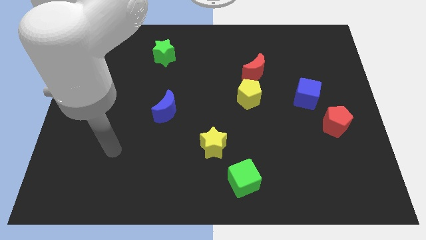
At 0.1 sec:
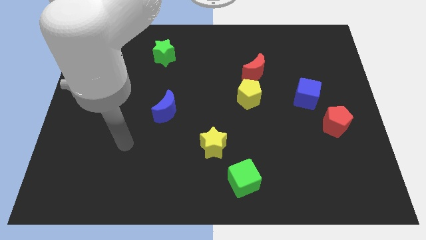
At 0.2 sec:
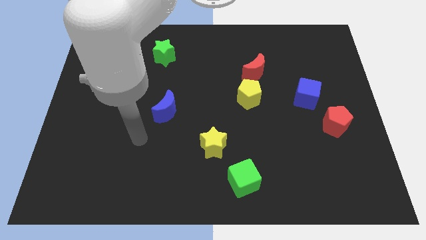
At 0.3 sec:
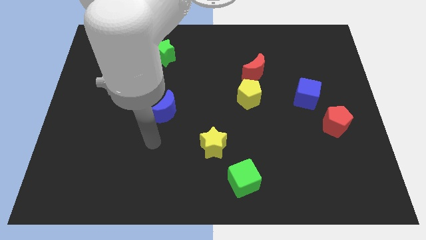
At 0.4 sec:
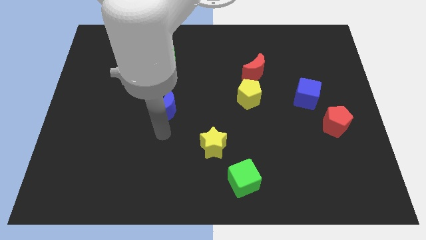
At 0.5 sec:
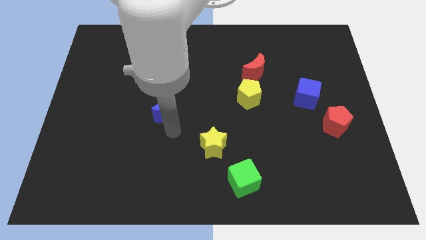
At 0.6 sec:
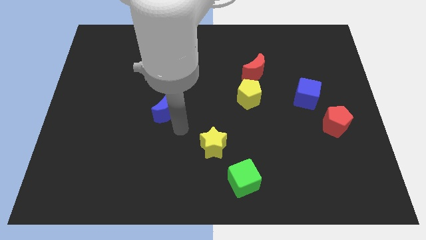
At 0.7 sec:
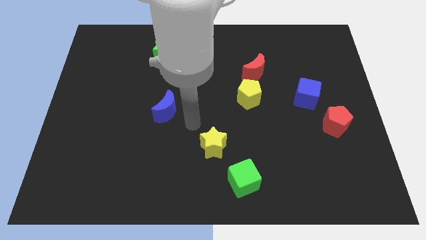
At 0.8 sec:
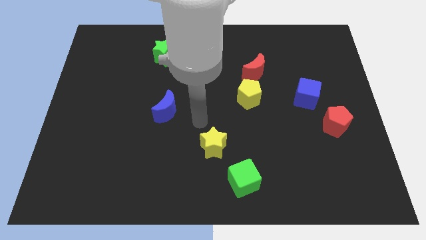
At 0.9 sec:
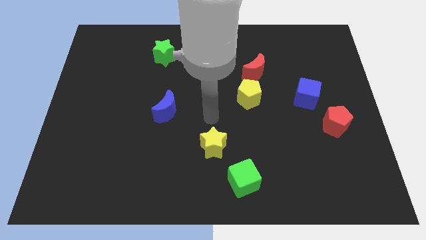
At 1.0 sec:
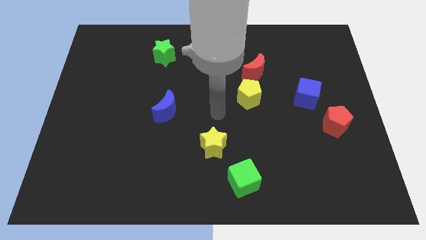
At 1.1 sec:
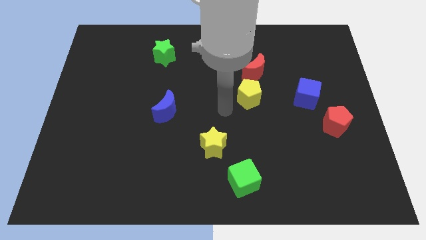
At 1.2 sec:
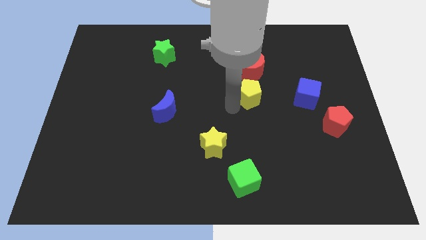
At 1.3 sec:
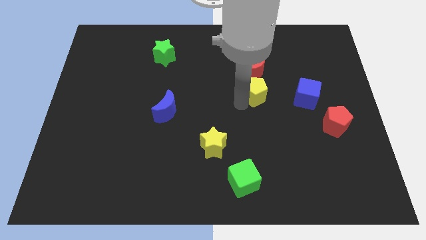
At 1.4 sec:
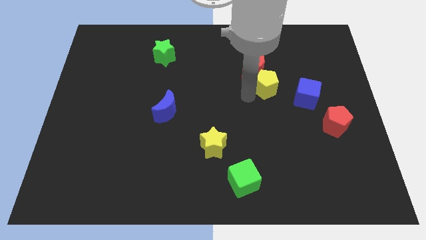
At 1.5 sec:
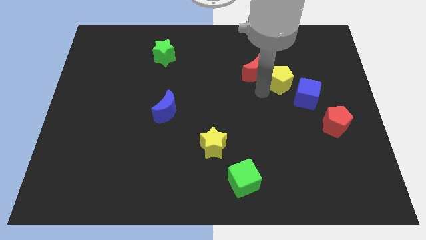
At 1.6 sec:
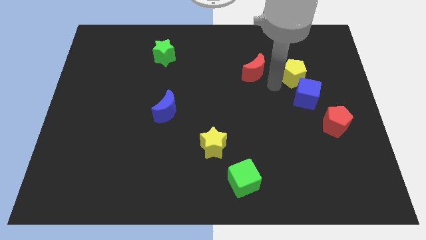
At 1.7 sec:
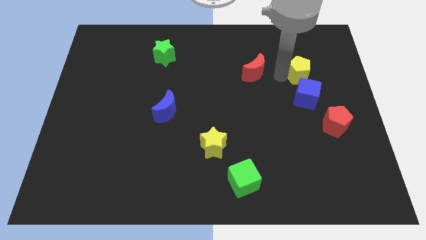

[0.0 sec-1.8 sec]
pull the red moon apart from the yellow pentagon

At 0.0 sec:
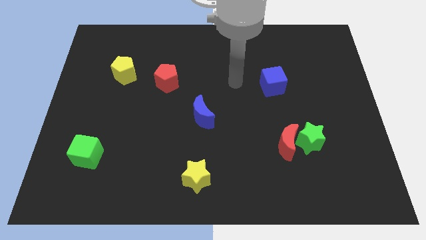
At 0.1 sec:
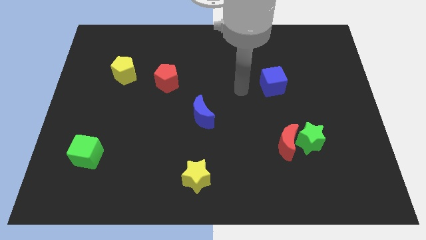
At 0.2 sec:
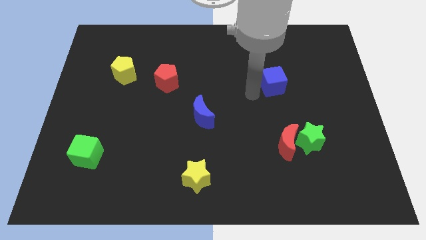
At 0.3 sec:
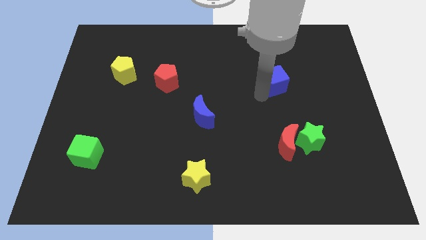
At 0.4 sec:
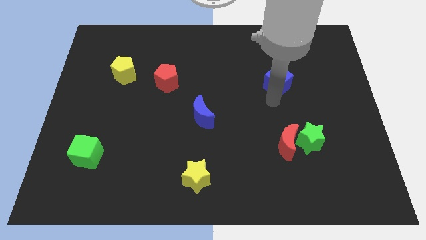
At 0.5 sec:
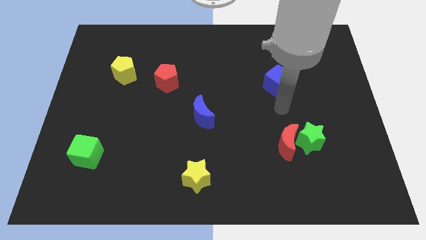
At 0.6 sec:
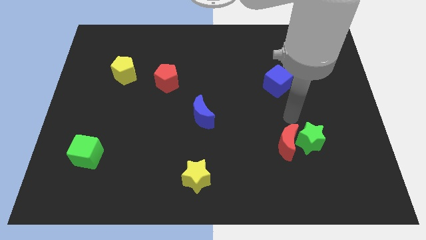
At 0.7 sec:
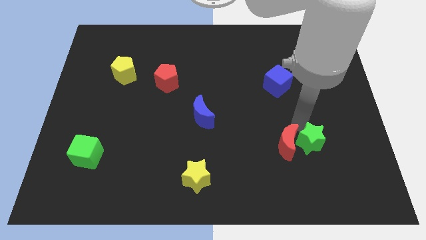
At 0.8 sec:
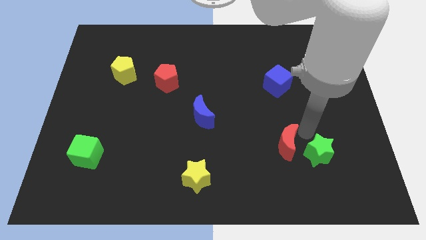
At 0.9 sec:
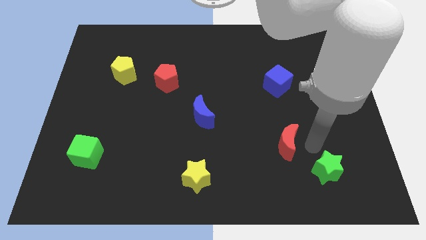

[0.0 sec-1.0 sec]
separate the red moon from the green star

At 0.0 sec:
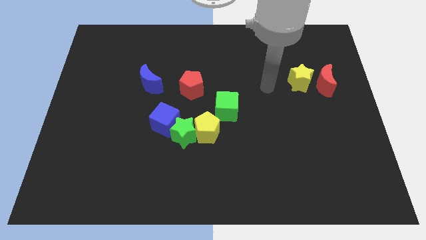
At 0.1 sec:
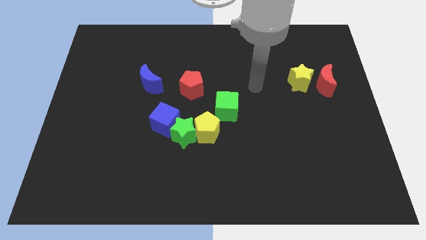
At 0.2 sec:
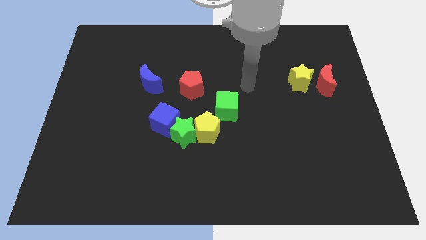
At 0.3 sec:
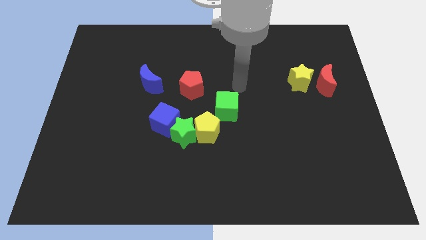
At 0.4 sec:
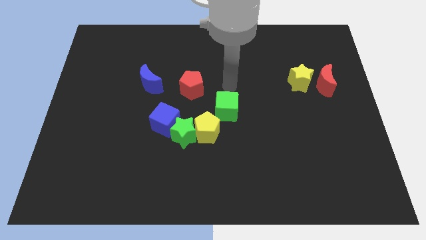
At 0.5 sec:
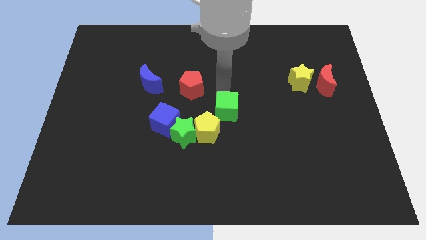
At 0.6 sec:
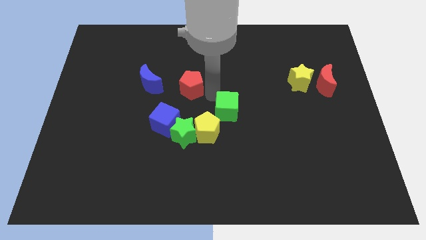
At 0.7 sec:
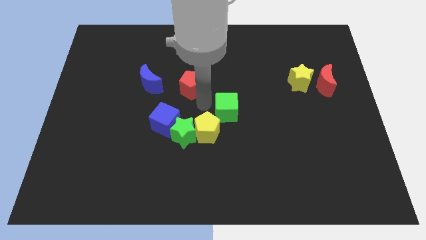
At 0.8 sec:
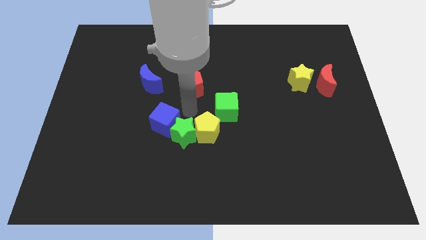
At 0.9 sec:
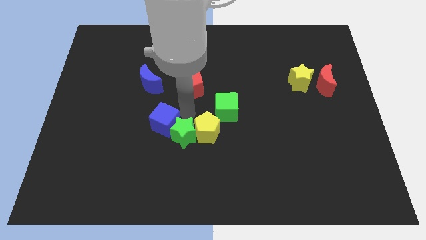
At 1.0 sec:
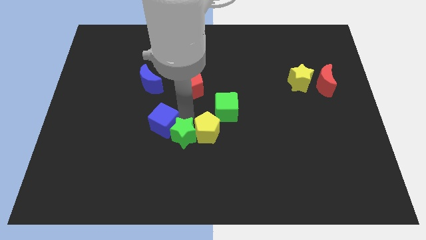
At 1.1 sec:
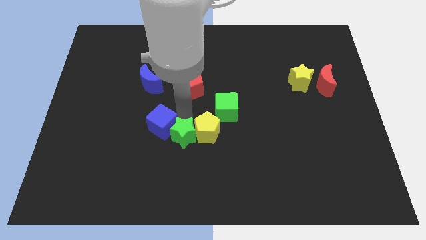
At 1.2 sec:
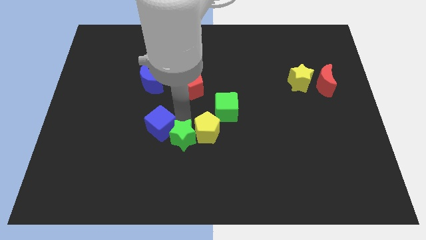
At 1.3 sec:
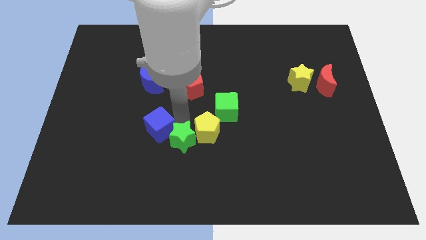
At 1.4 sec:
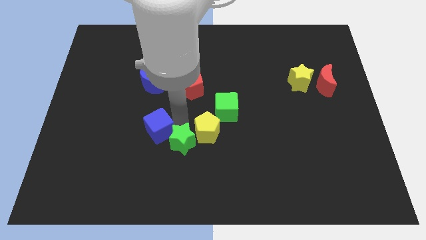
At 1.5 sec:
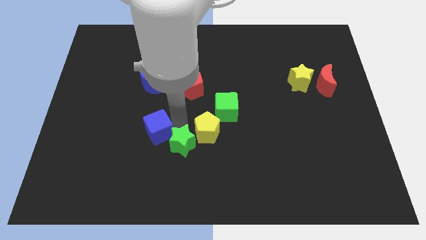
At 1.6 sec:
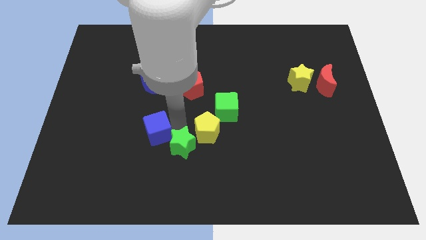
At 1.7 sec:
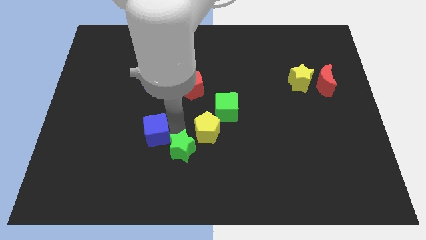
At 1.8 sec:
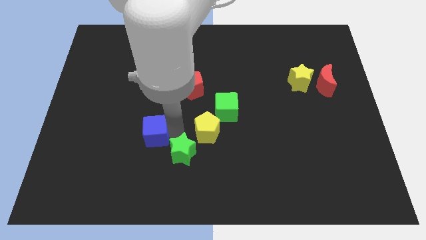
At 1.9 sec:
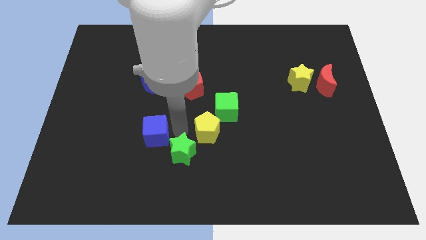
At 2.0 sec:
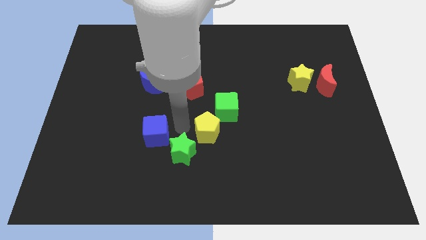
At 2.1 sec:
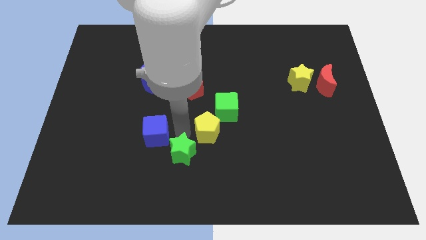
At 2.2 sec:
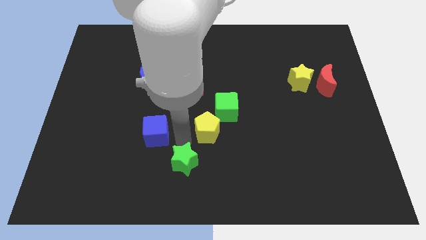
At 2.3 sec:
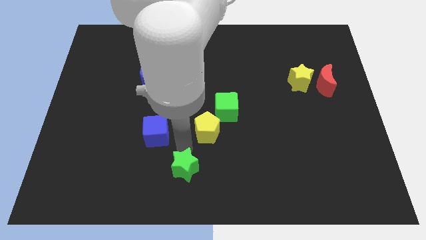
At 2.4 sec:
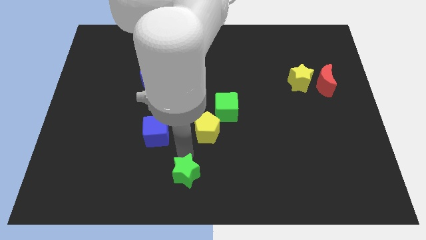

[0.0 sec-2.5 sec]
move the green star away from the yellow pentagon and blue cube

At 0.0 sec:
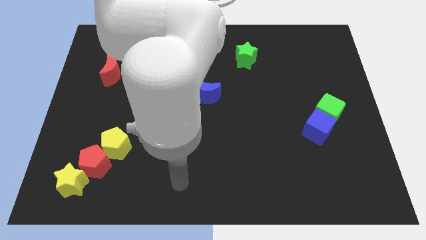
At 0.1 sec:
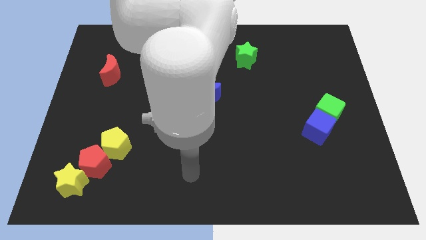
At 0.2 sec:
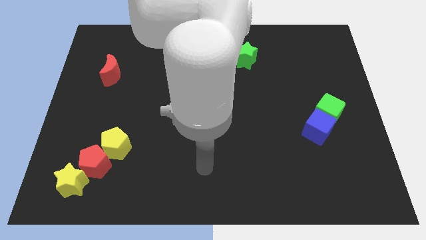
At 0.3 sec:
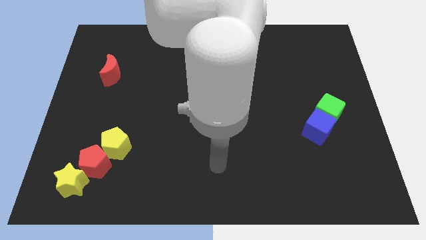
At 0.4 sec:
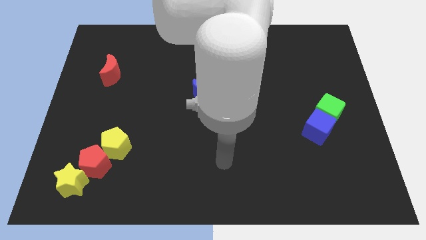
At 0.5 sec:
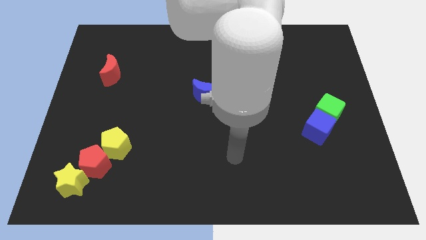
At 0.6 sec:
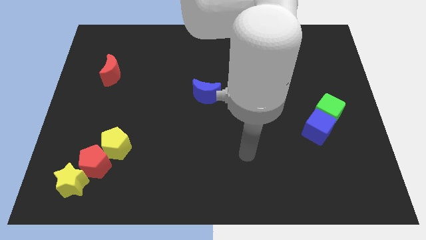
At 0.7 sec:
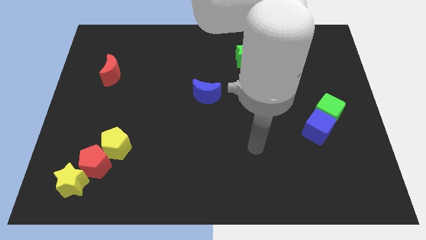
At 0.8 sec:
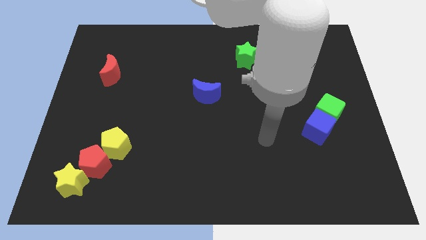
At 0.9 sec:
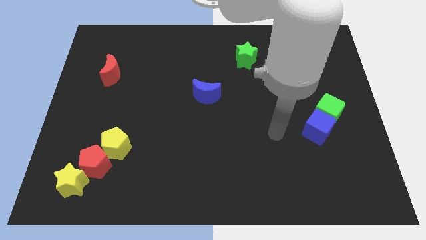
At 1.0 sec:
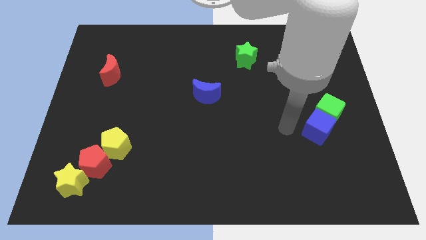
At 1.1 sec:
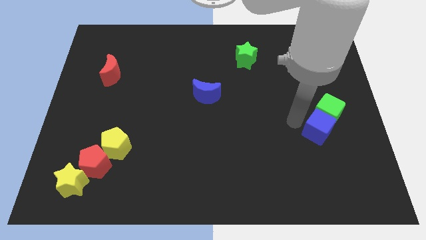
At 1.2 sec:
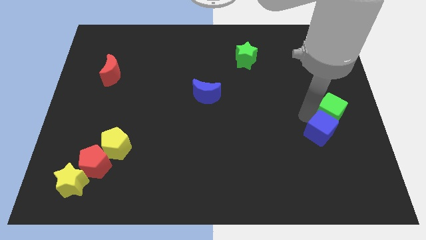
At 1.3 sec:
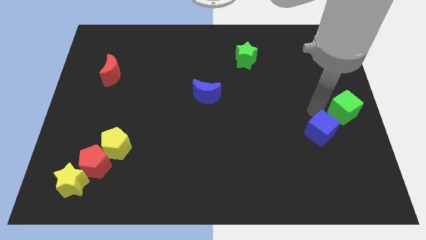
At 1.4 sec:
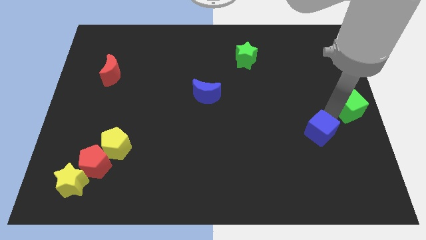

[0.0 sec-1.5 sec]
pull the blue cube apart from the green cube

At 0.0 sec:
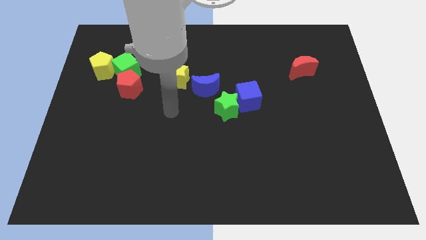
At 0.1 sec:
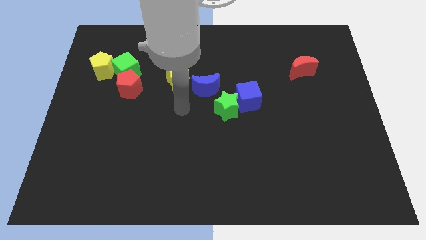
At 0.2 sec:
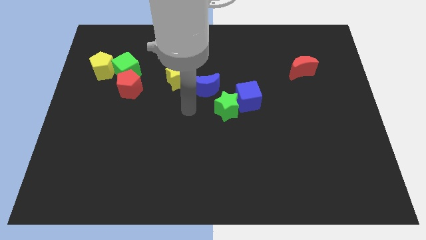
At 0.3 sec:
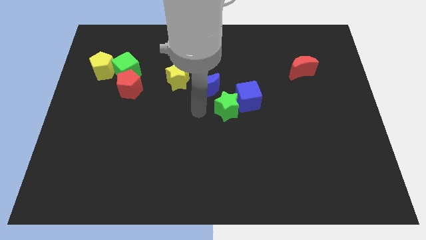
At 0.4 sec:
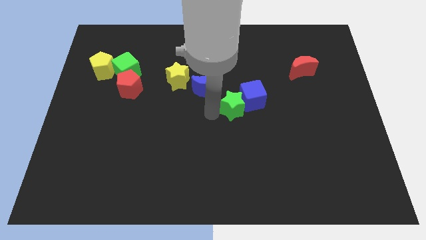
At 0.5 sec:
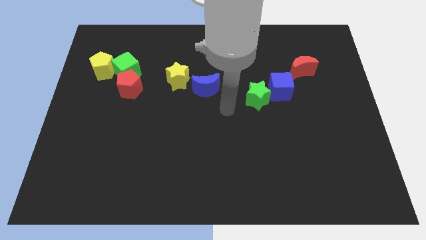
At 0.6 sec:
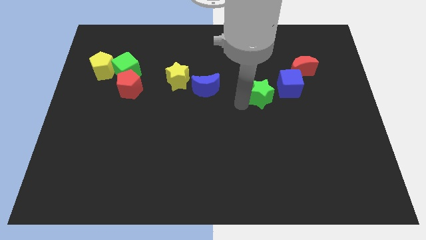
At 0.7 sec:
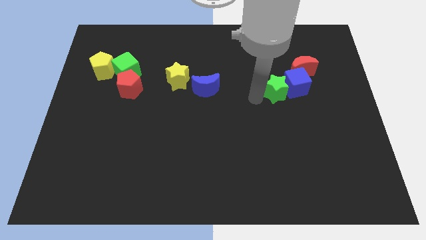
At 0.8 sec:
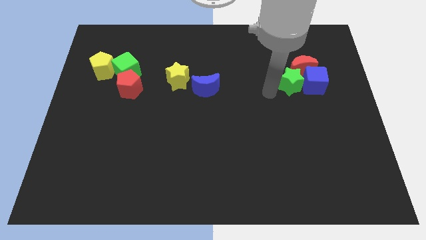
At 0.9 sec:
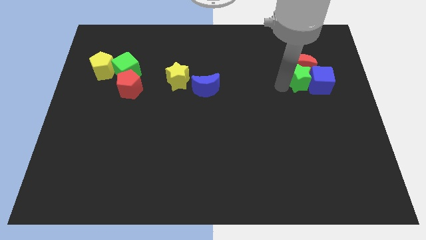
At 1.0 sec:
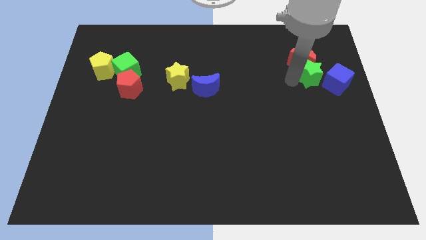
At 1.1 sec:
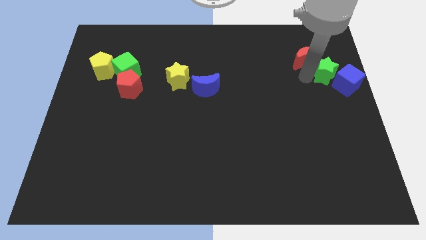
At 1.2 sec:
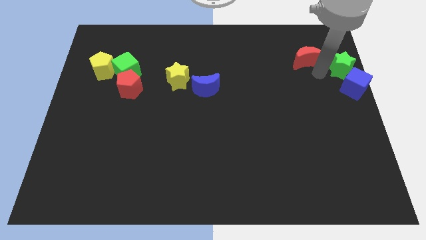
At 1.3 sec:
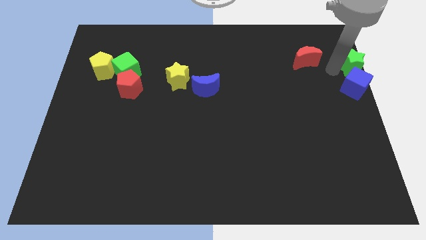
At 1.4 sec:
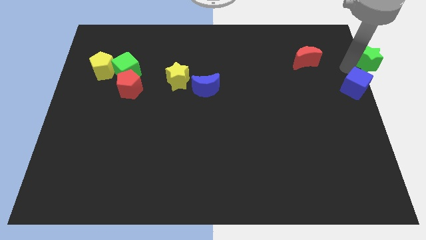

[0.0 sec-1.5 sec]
pull the blue cube apart from the green star

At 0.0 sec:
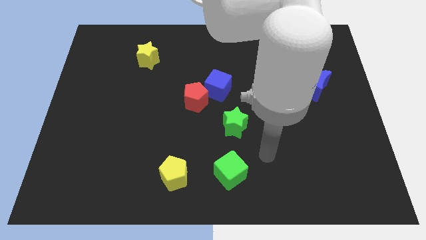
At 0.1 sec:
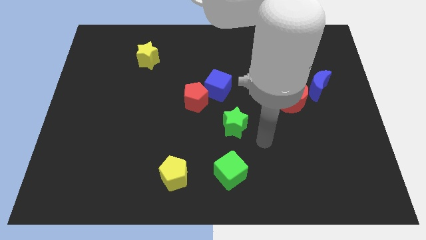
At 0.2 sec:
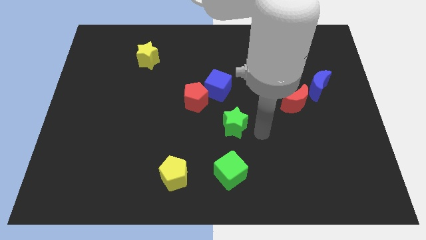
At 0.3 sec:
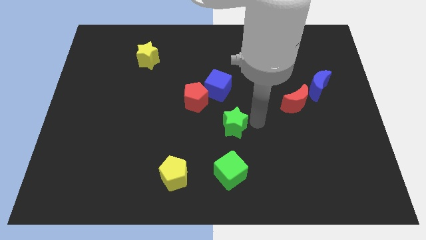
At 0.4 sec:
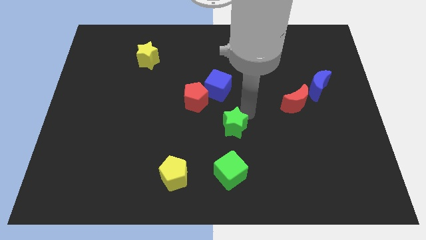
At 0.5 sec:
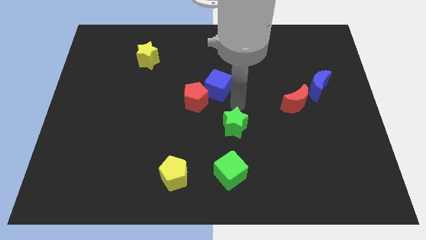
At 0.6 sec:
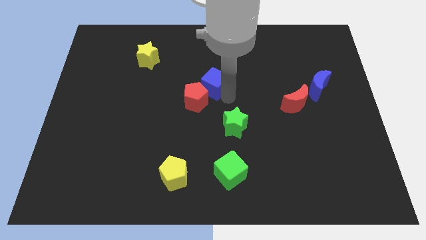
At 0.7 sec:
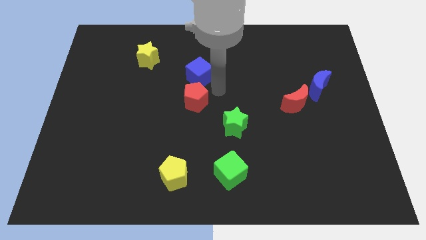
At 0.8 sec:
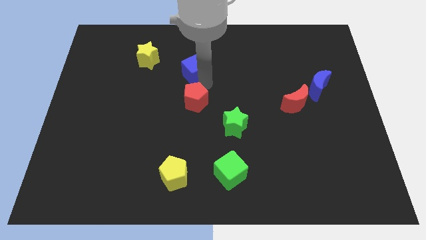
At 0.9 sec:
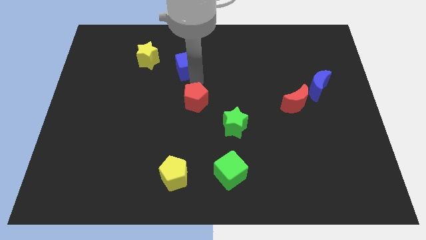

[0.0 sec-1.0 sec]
separate the red pentagon from the blue cube
